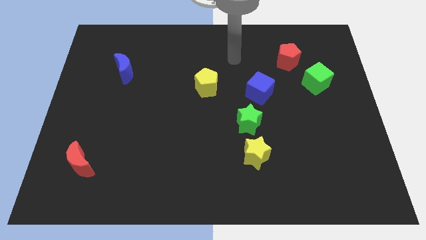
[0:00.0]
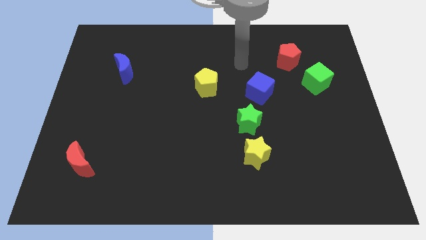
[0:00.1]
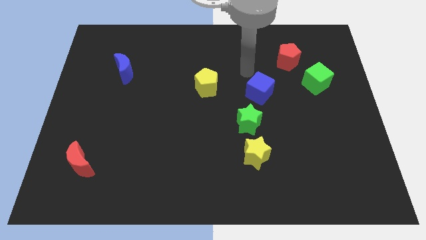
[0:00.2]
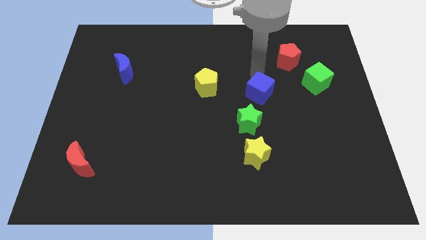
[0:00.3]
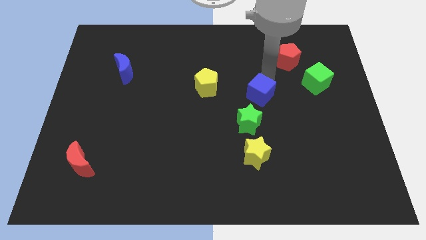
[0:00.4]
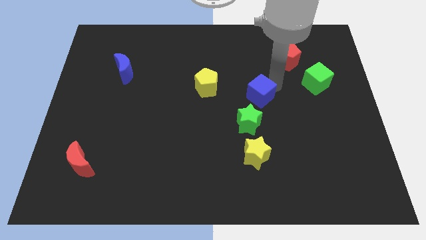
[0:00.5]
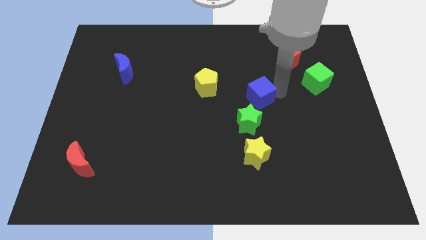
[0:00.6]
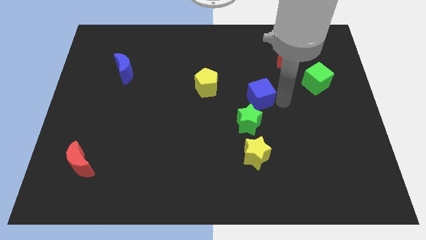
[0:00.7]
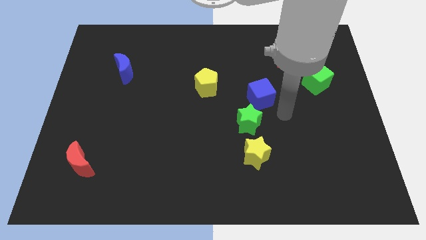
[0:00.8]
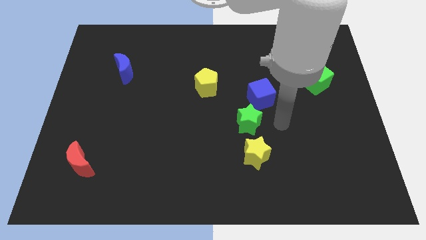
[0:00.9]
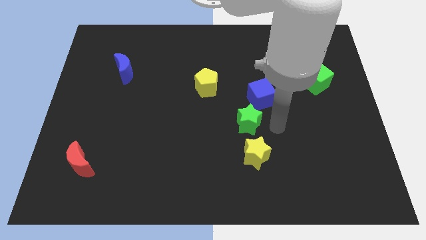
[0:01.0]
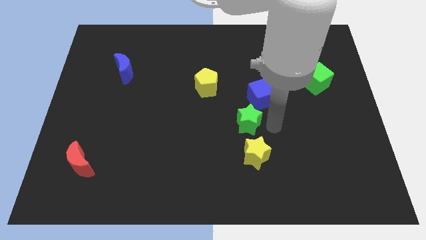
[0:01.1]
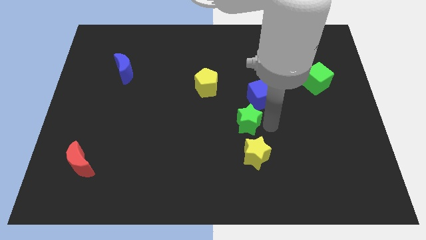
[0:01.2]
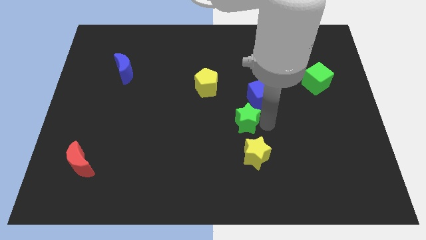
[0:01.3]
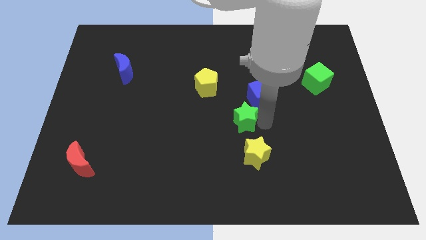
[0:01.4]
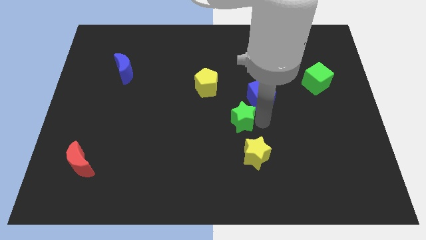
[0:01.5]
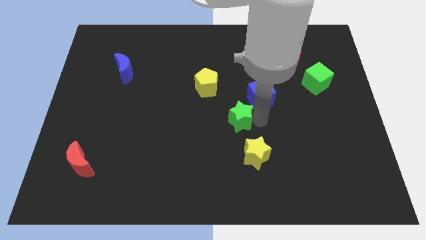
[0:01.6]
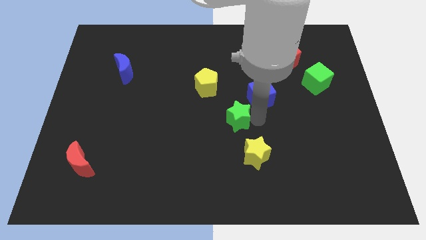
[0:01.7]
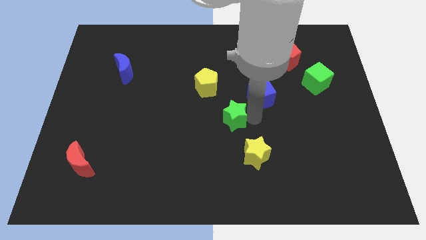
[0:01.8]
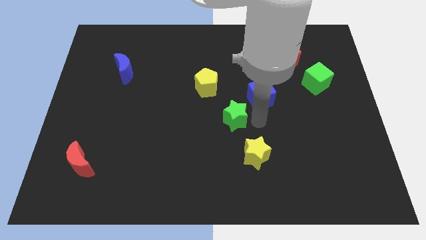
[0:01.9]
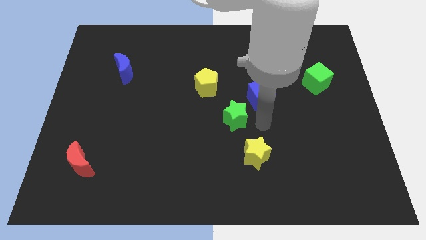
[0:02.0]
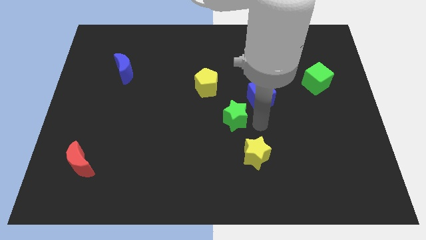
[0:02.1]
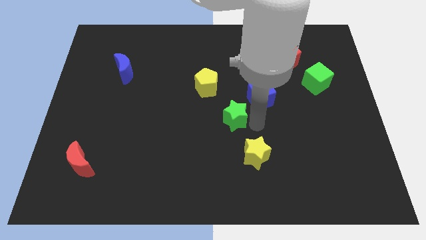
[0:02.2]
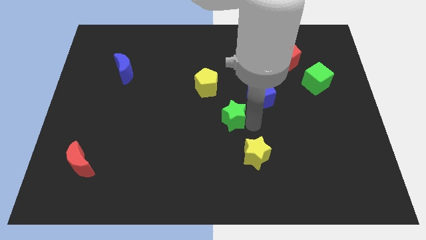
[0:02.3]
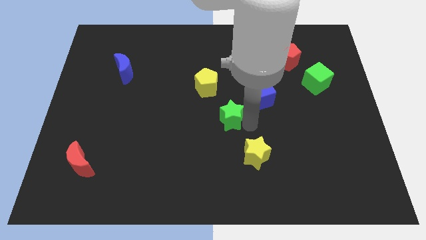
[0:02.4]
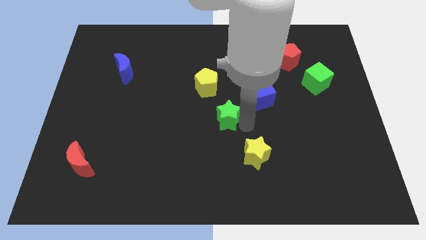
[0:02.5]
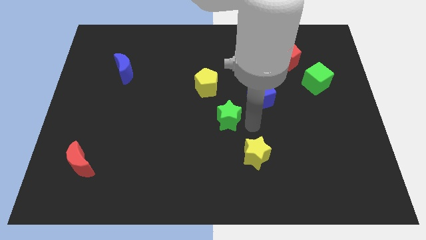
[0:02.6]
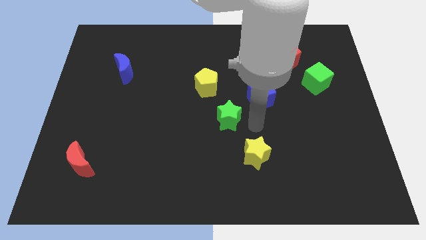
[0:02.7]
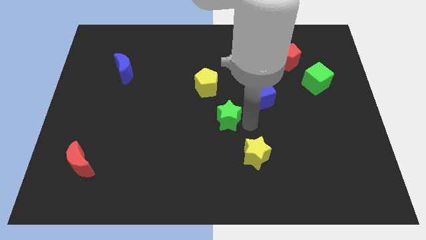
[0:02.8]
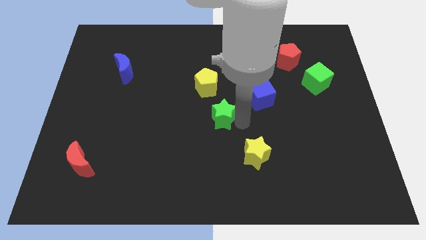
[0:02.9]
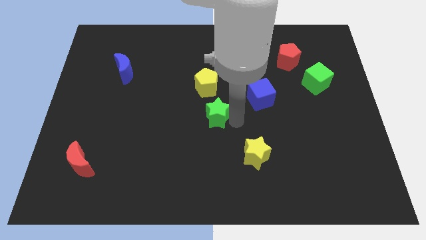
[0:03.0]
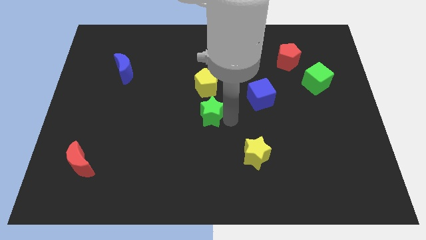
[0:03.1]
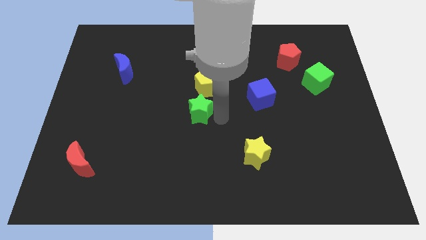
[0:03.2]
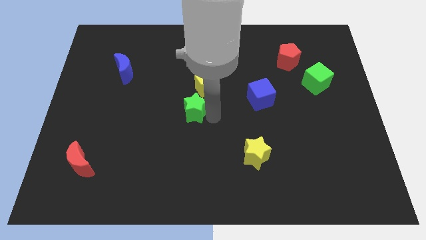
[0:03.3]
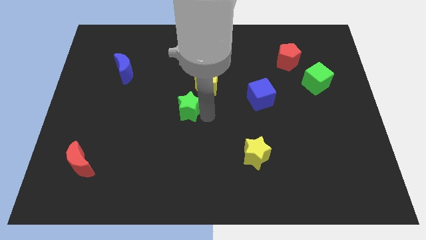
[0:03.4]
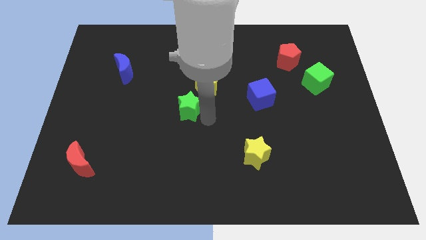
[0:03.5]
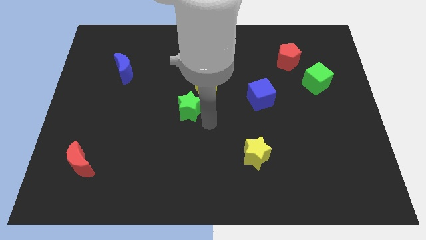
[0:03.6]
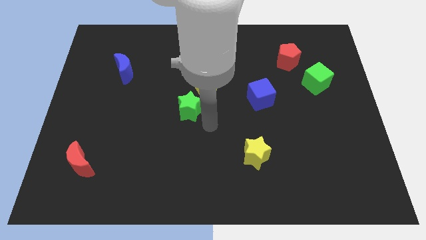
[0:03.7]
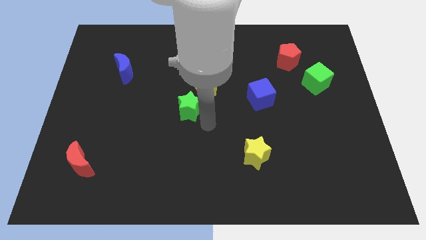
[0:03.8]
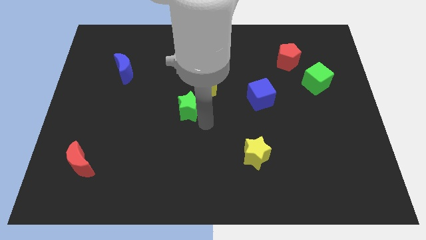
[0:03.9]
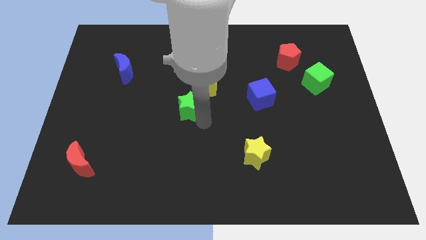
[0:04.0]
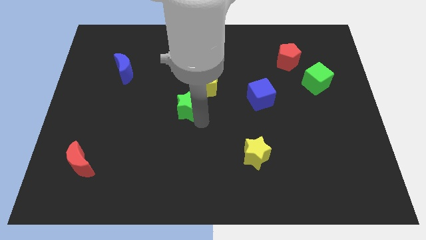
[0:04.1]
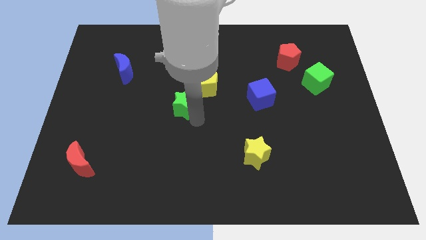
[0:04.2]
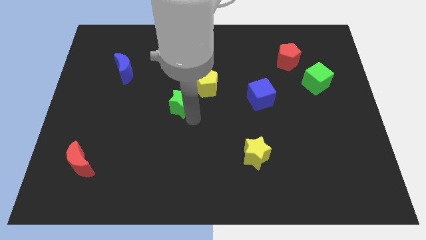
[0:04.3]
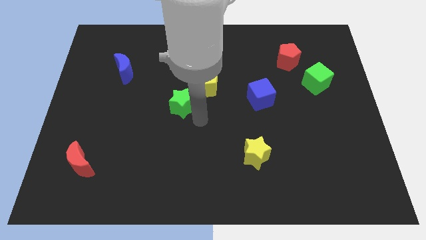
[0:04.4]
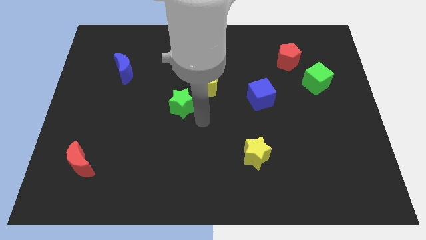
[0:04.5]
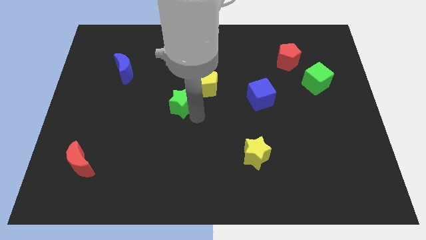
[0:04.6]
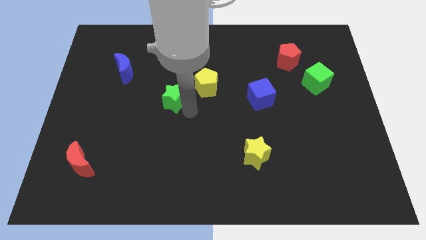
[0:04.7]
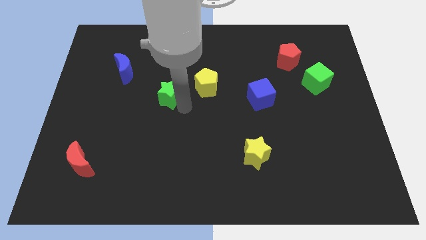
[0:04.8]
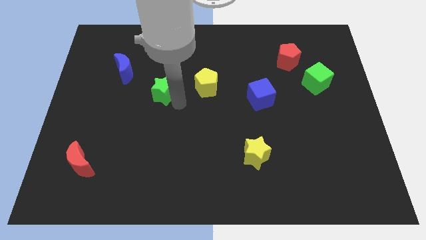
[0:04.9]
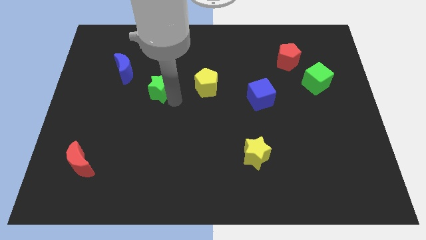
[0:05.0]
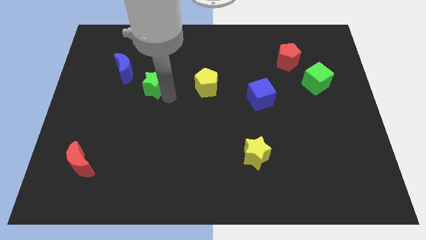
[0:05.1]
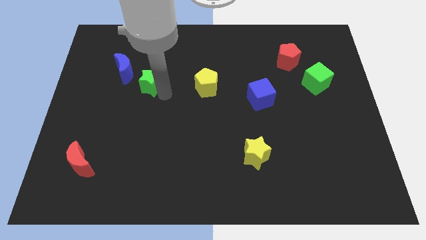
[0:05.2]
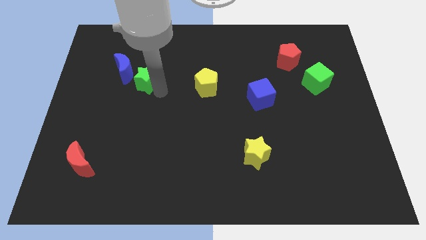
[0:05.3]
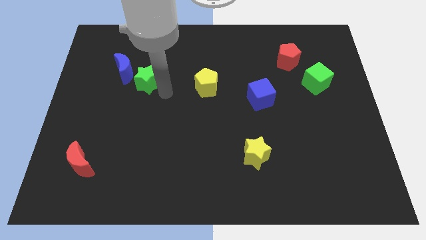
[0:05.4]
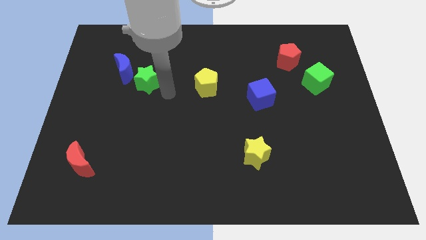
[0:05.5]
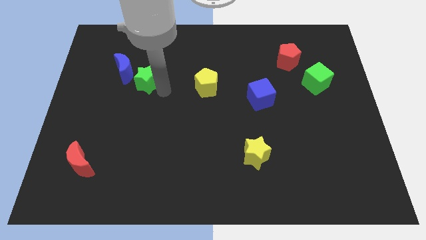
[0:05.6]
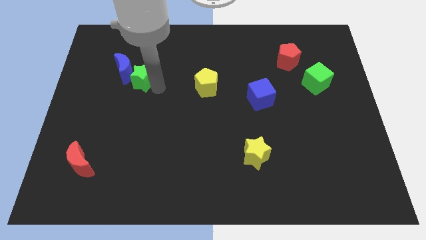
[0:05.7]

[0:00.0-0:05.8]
put the green star close to the blue moon

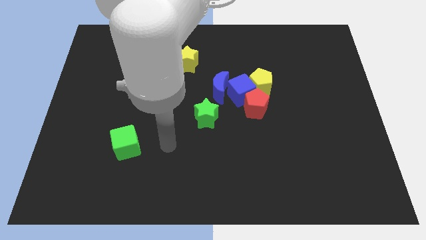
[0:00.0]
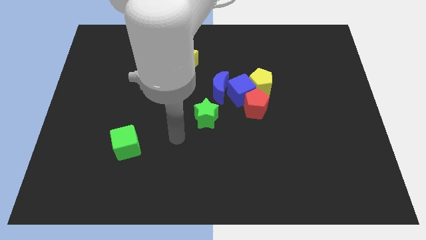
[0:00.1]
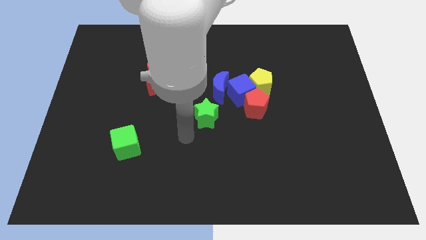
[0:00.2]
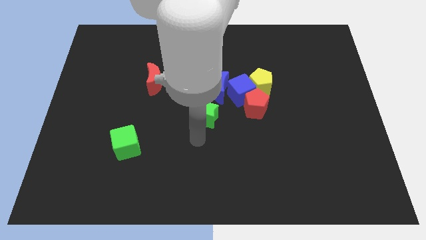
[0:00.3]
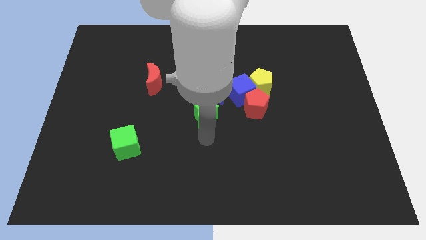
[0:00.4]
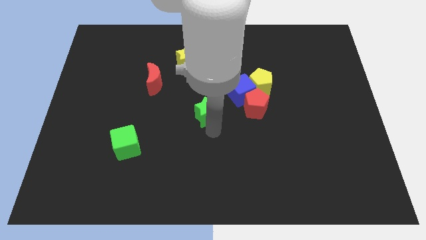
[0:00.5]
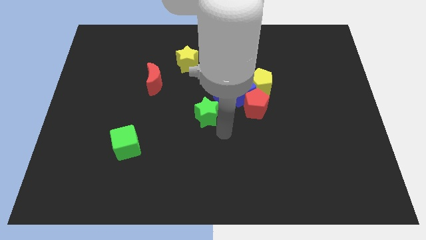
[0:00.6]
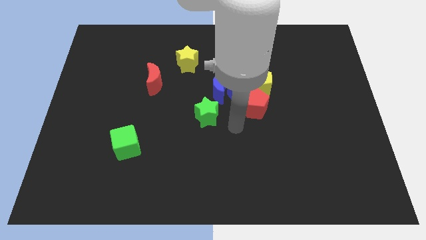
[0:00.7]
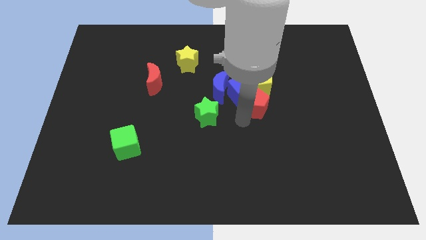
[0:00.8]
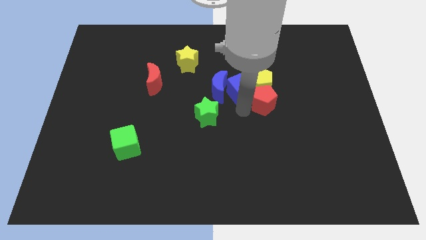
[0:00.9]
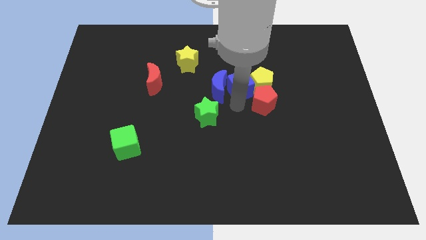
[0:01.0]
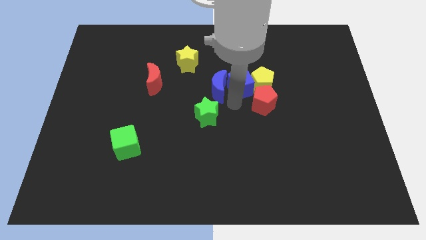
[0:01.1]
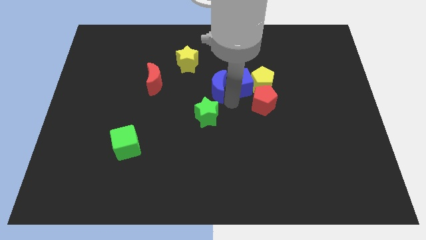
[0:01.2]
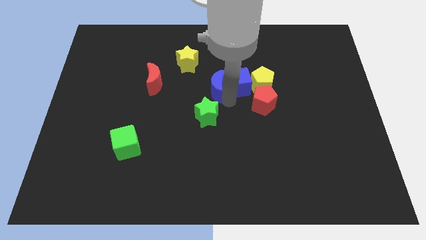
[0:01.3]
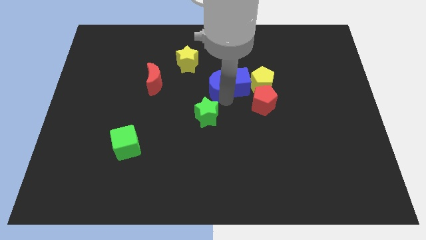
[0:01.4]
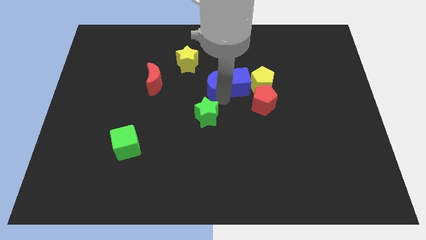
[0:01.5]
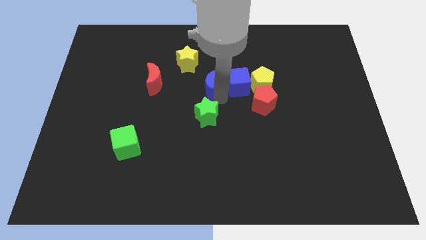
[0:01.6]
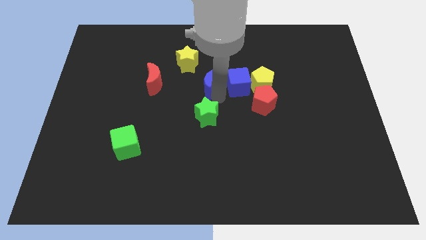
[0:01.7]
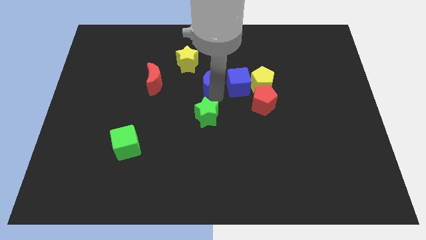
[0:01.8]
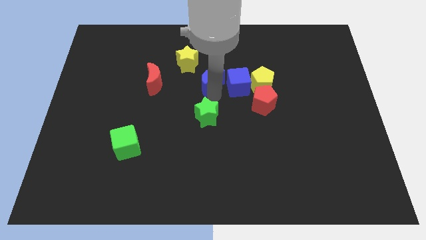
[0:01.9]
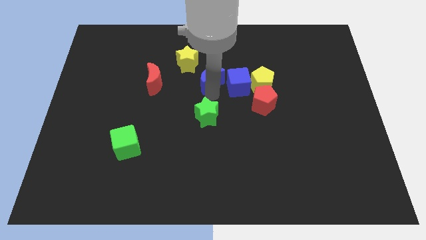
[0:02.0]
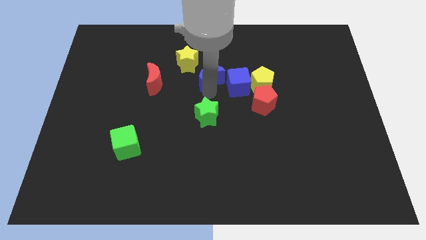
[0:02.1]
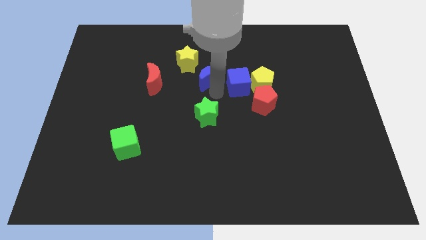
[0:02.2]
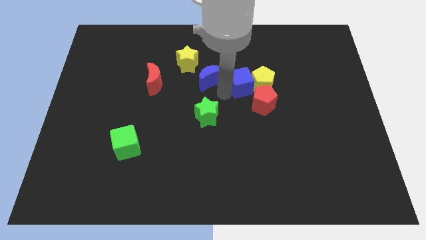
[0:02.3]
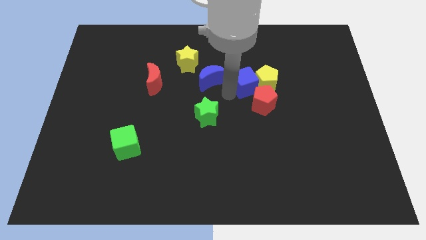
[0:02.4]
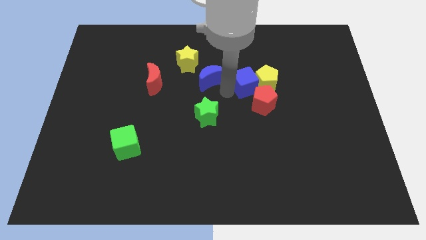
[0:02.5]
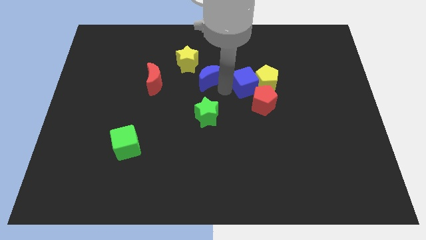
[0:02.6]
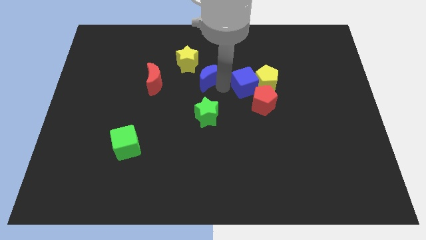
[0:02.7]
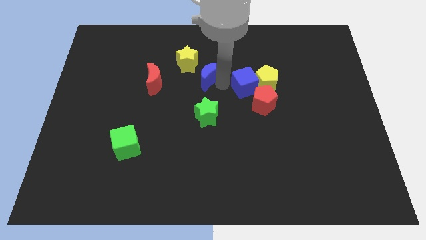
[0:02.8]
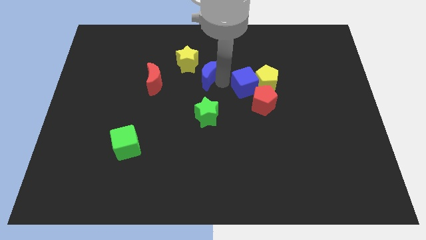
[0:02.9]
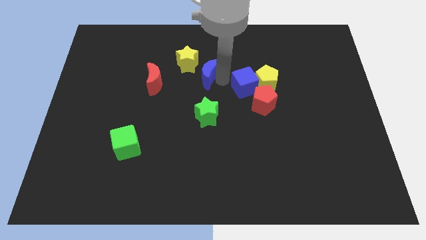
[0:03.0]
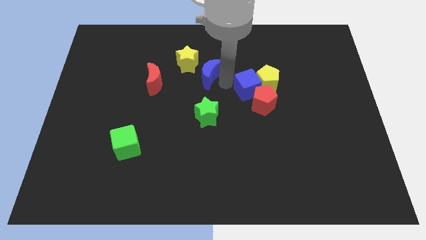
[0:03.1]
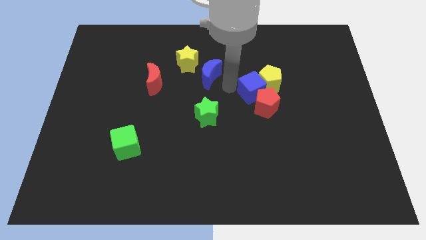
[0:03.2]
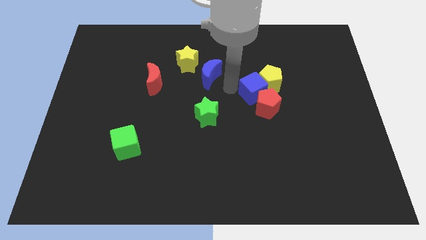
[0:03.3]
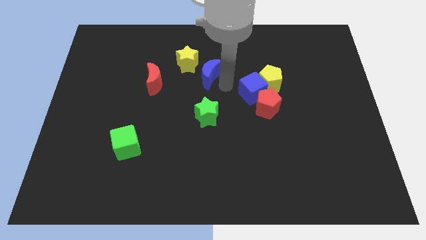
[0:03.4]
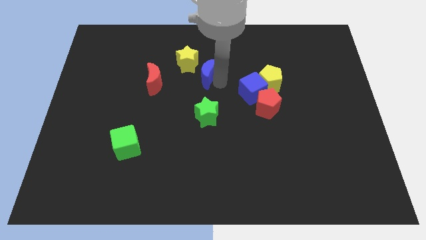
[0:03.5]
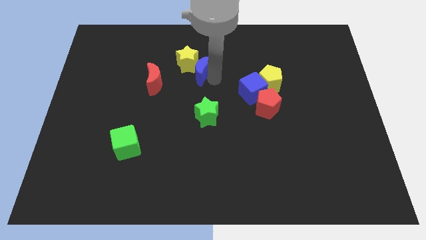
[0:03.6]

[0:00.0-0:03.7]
move the blue moon close to the yellow star
